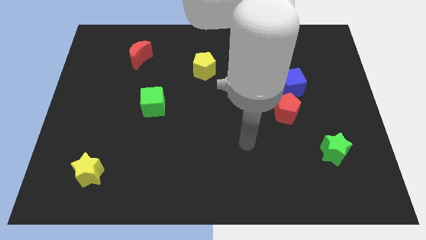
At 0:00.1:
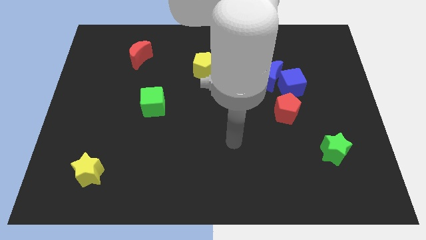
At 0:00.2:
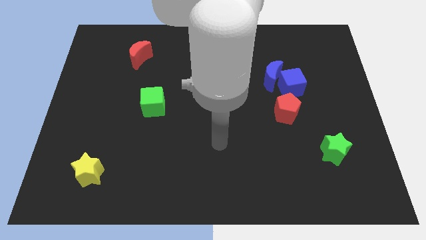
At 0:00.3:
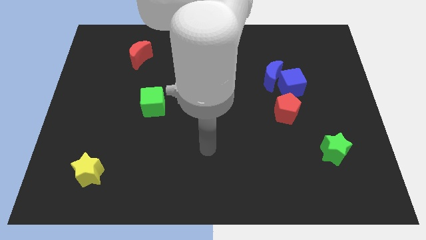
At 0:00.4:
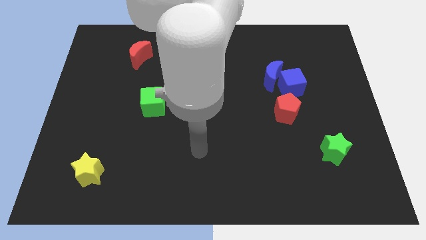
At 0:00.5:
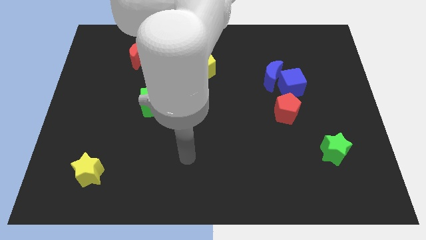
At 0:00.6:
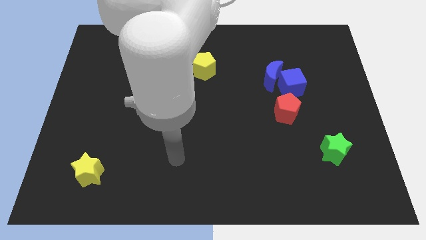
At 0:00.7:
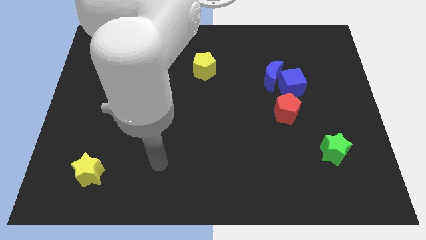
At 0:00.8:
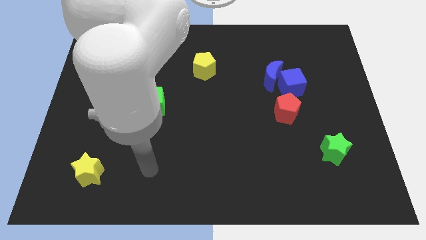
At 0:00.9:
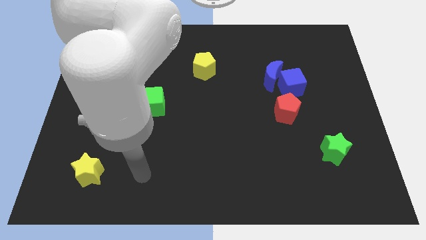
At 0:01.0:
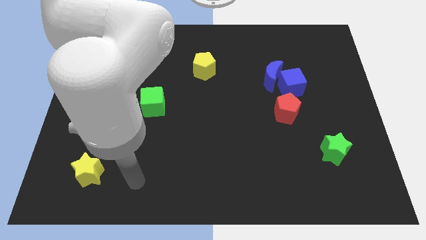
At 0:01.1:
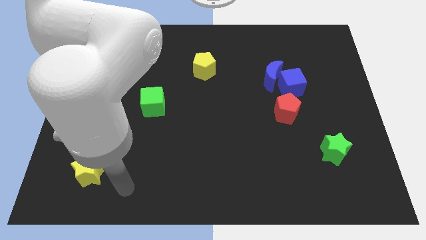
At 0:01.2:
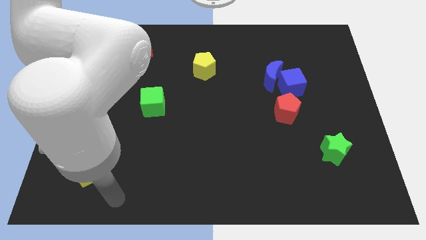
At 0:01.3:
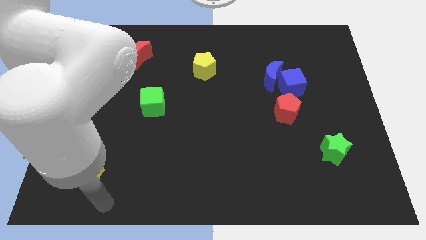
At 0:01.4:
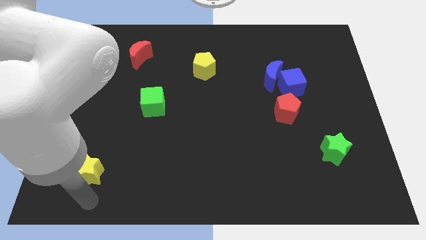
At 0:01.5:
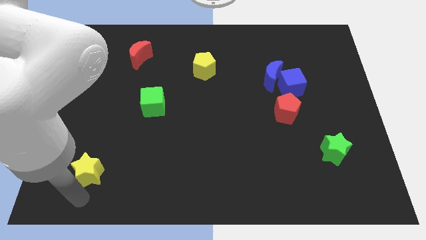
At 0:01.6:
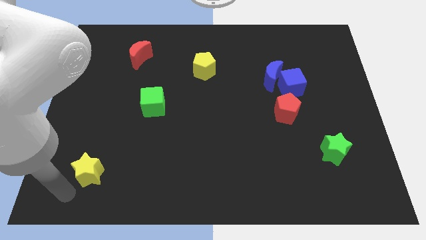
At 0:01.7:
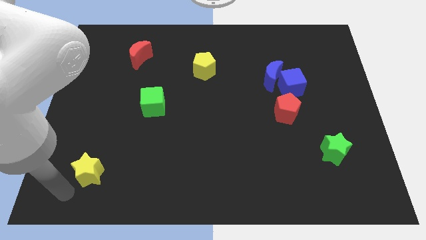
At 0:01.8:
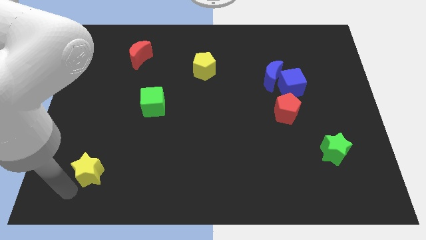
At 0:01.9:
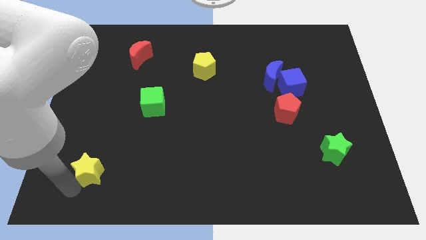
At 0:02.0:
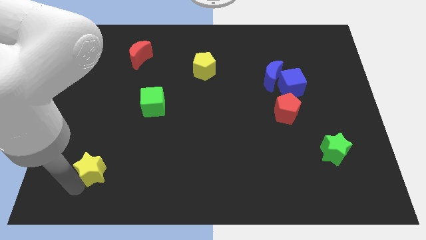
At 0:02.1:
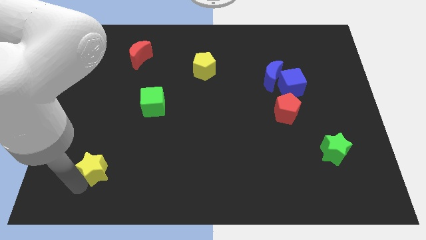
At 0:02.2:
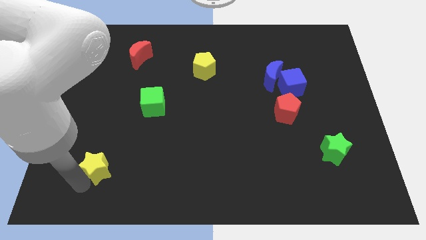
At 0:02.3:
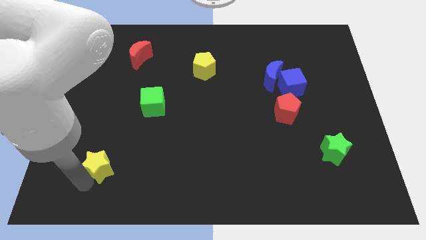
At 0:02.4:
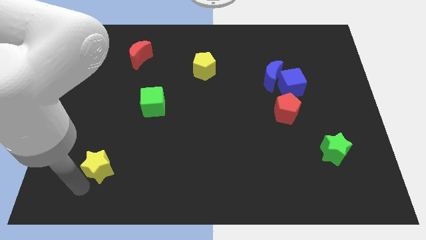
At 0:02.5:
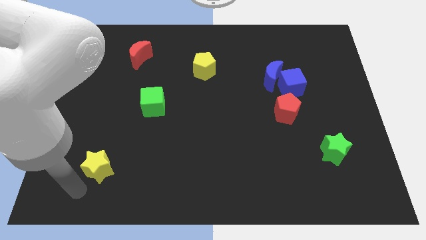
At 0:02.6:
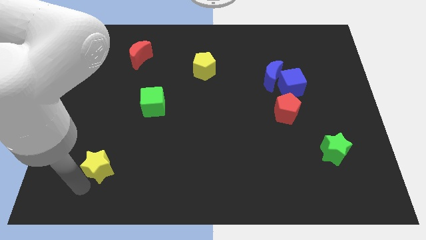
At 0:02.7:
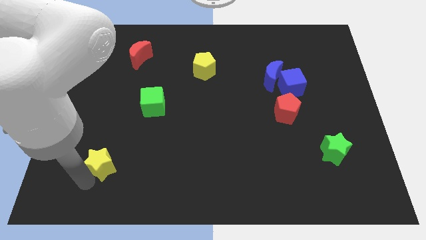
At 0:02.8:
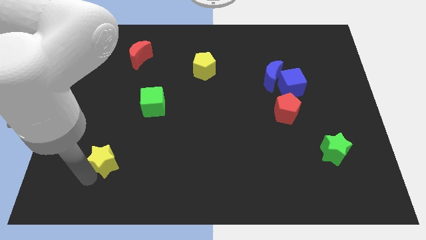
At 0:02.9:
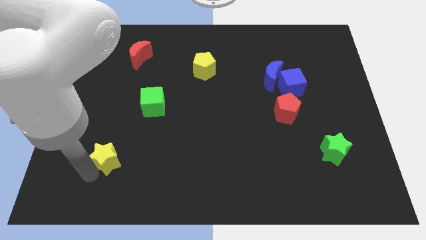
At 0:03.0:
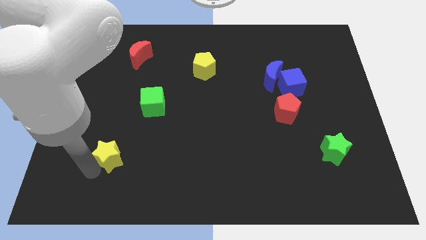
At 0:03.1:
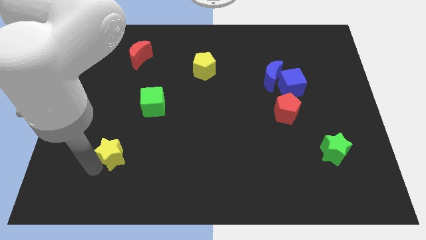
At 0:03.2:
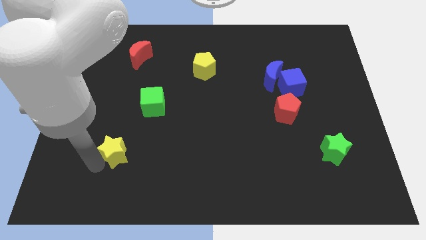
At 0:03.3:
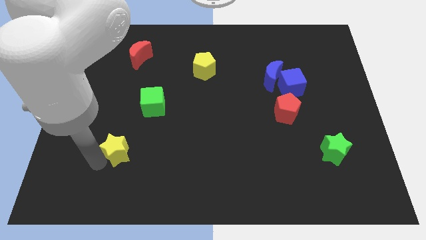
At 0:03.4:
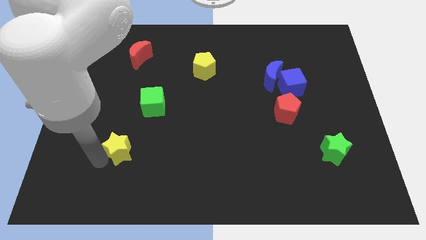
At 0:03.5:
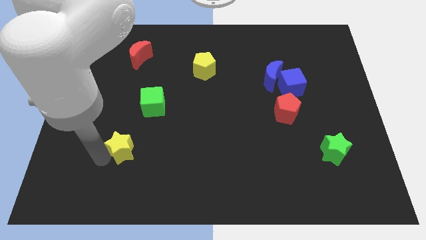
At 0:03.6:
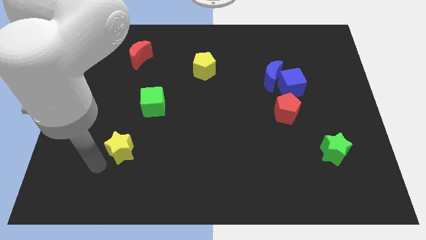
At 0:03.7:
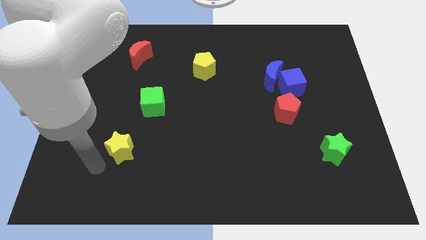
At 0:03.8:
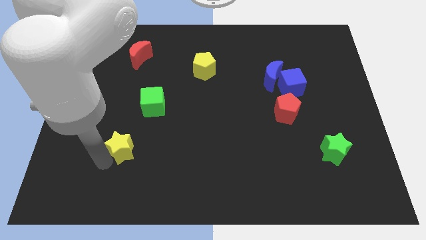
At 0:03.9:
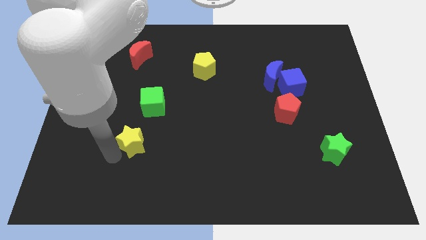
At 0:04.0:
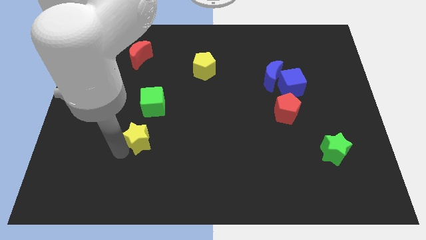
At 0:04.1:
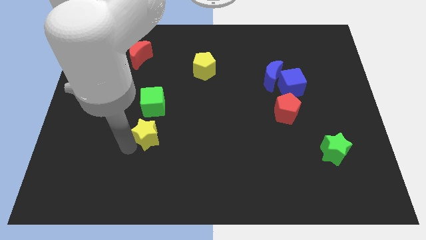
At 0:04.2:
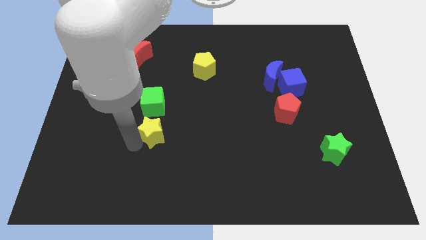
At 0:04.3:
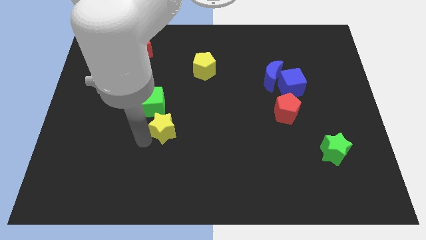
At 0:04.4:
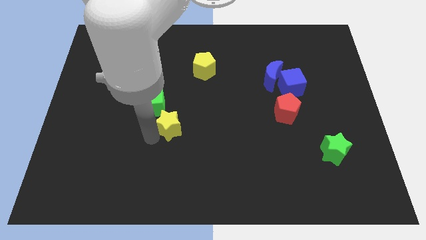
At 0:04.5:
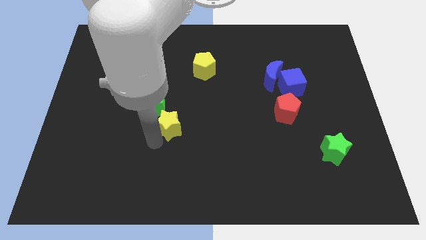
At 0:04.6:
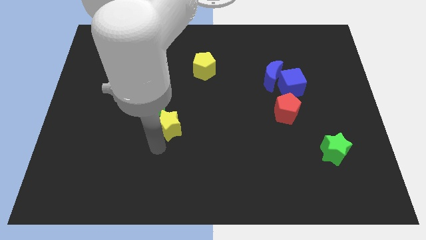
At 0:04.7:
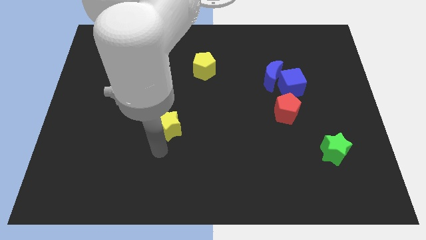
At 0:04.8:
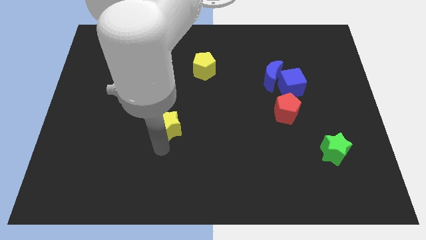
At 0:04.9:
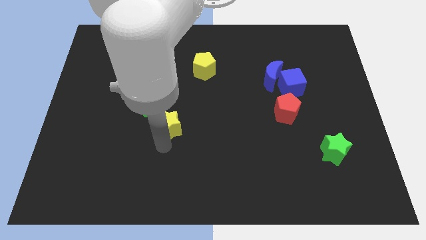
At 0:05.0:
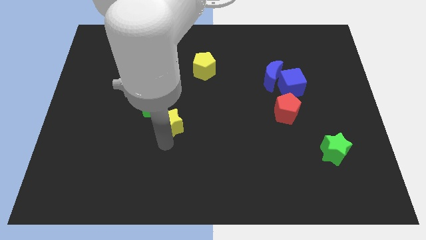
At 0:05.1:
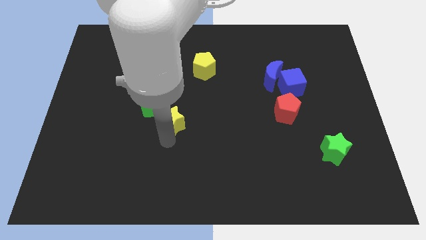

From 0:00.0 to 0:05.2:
move the yellow star up and to the right

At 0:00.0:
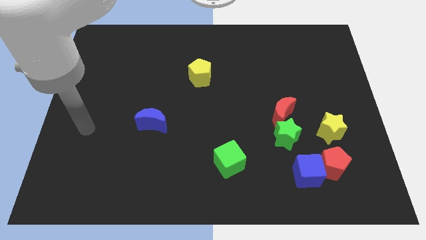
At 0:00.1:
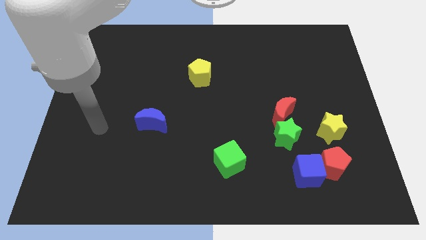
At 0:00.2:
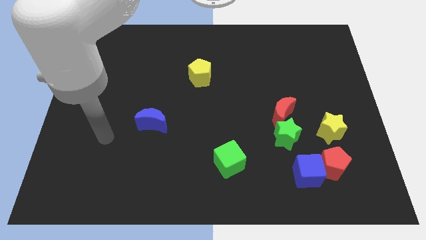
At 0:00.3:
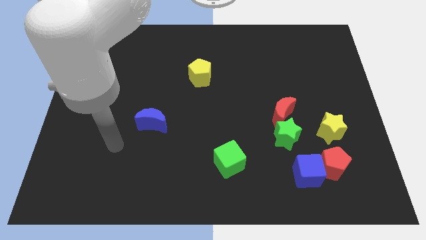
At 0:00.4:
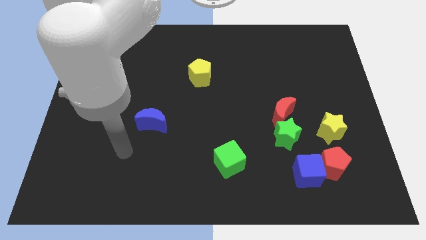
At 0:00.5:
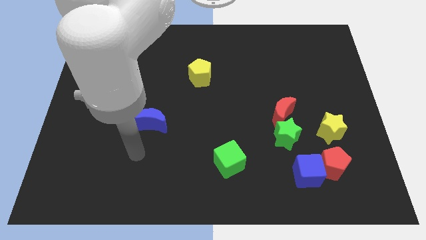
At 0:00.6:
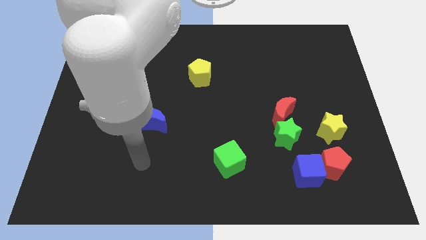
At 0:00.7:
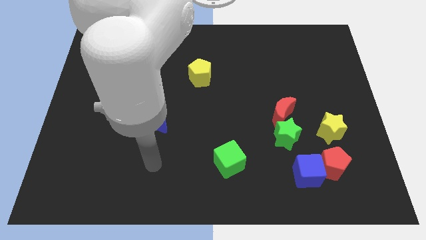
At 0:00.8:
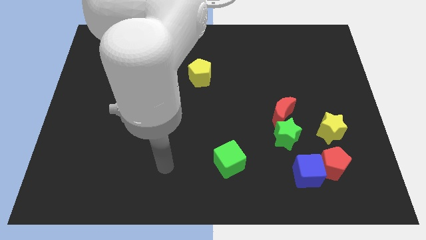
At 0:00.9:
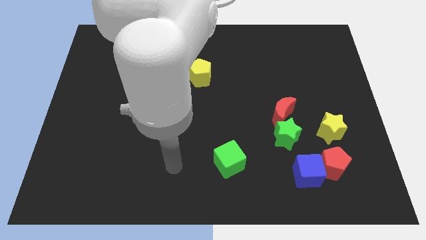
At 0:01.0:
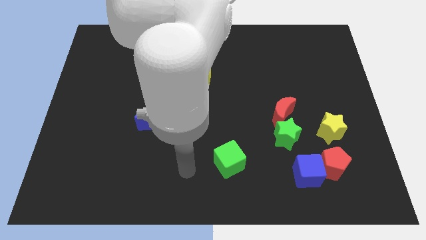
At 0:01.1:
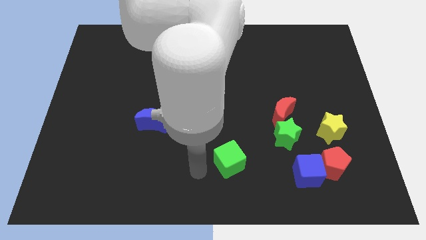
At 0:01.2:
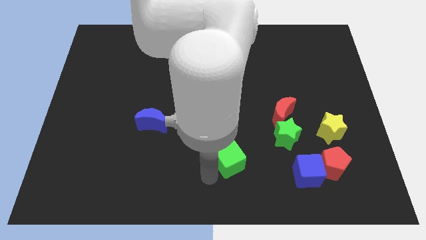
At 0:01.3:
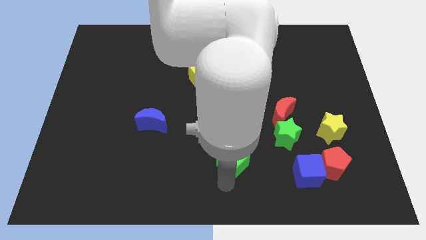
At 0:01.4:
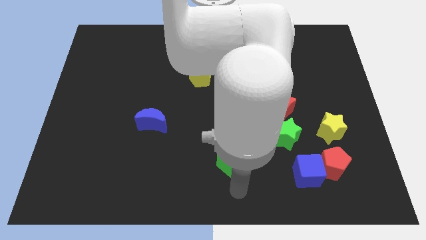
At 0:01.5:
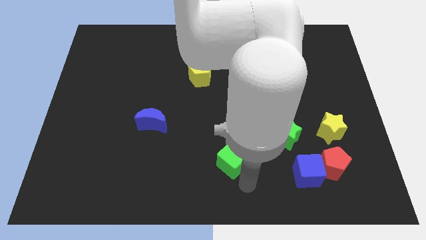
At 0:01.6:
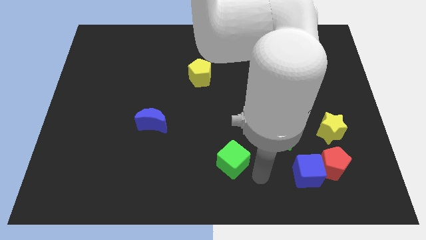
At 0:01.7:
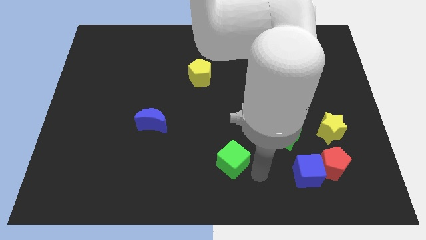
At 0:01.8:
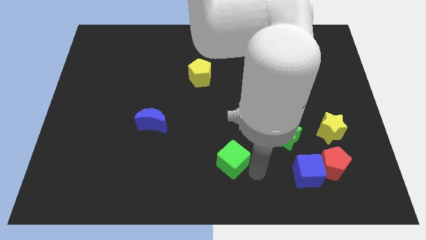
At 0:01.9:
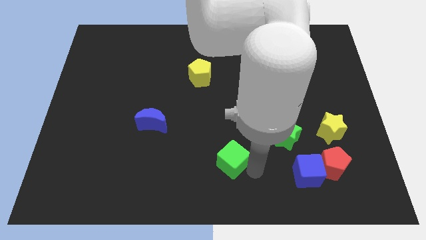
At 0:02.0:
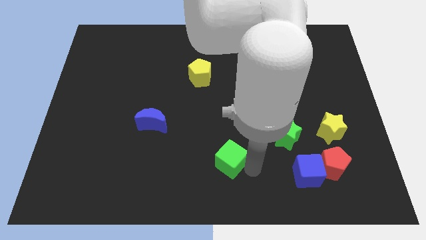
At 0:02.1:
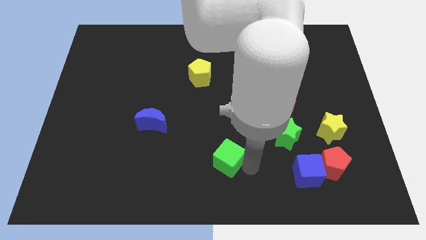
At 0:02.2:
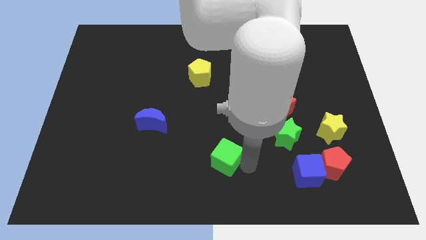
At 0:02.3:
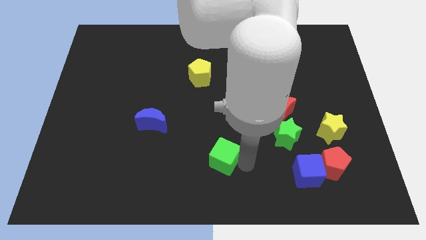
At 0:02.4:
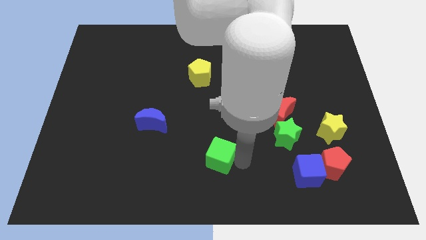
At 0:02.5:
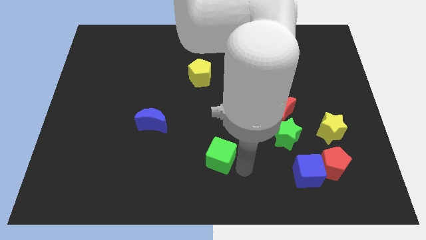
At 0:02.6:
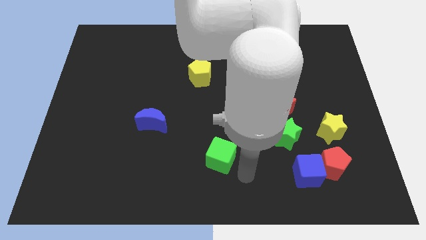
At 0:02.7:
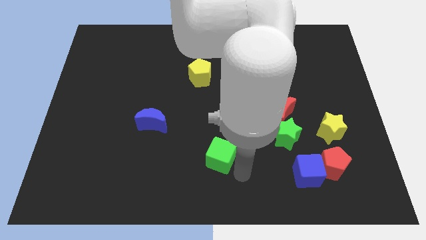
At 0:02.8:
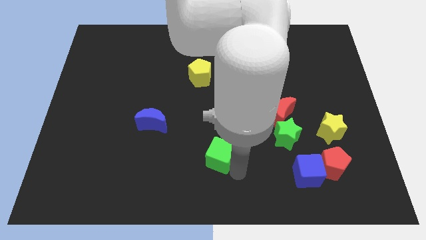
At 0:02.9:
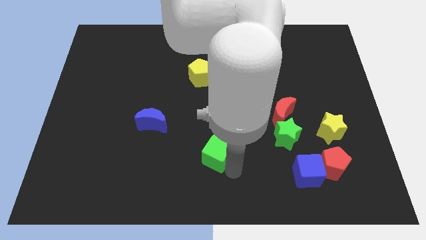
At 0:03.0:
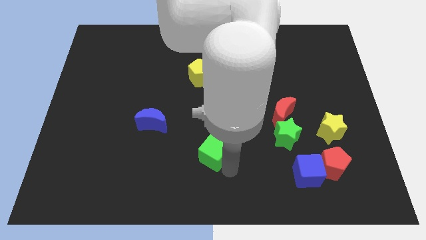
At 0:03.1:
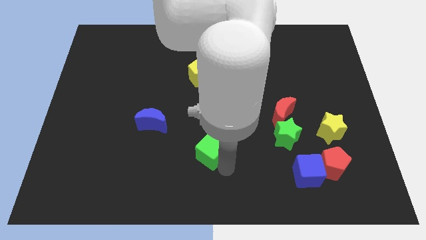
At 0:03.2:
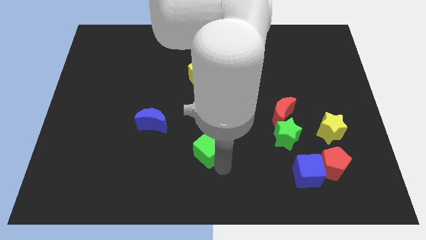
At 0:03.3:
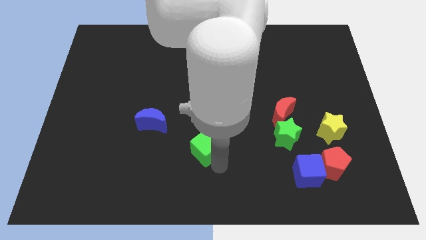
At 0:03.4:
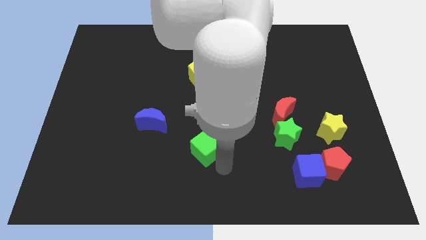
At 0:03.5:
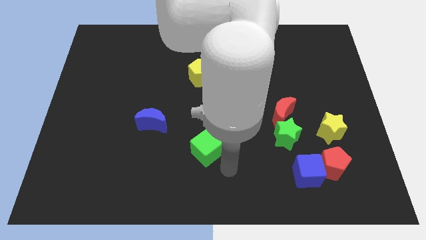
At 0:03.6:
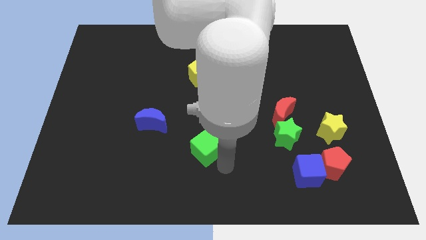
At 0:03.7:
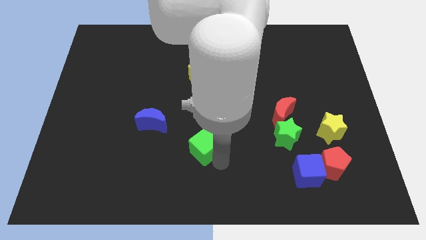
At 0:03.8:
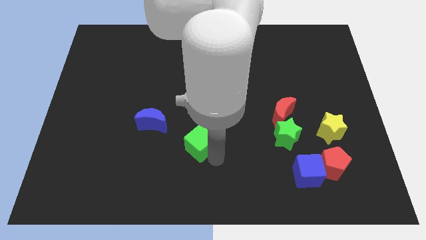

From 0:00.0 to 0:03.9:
slightly push the green cube up and then to the left
